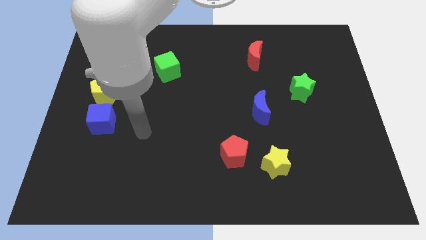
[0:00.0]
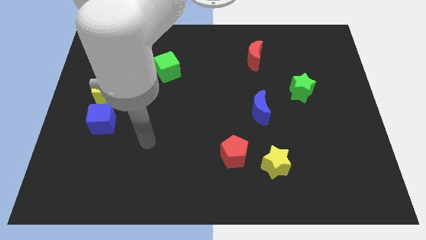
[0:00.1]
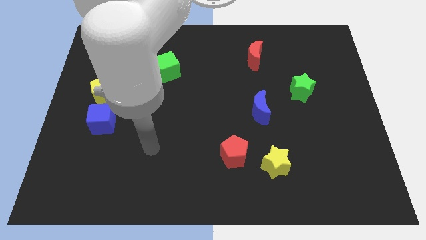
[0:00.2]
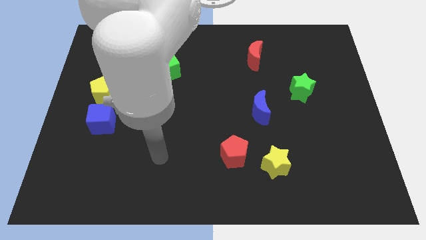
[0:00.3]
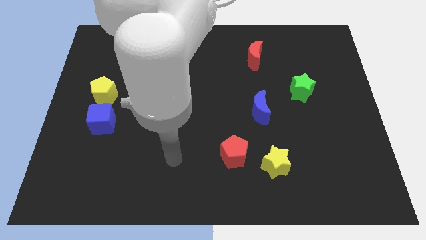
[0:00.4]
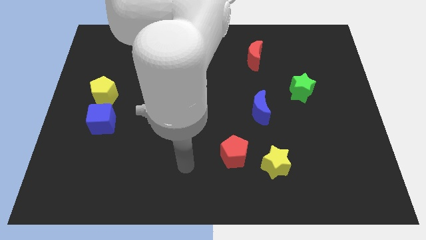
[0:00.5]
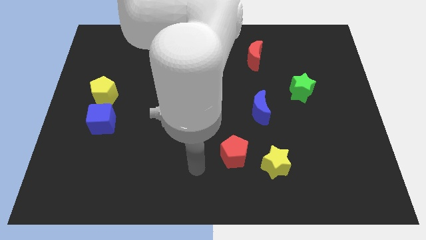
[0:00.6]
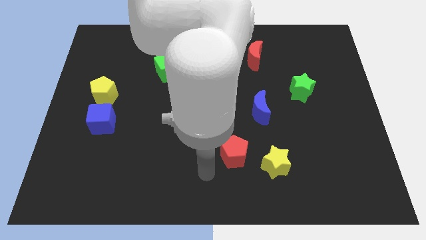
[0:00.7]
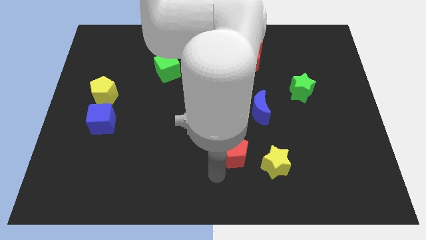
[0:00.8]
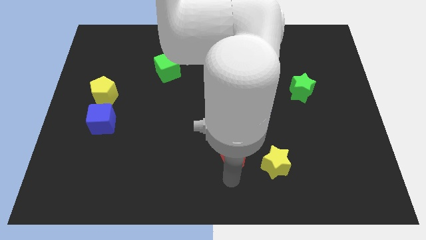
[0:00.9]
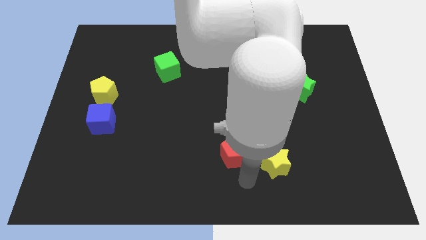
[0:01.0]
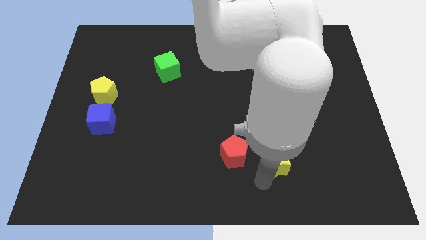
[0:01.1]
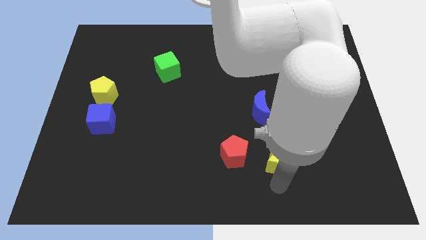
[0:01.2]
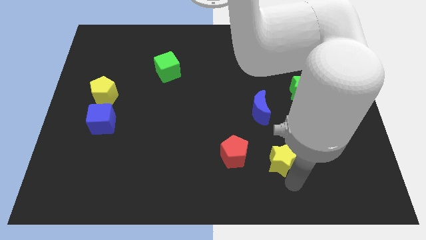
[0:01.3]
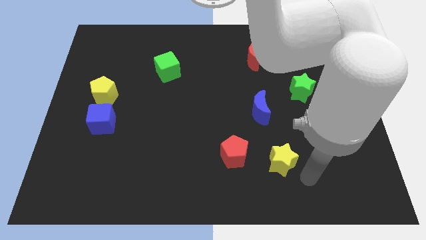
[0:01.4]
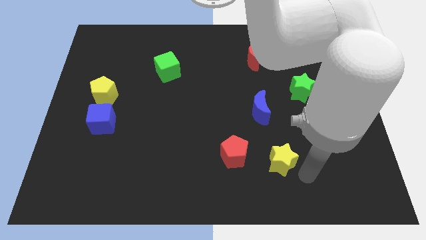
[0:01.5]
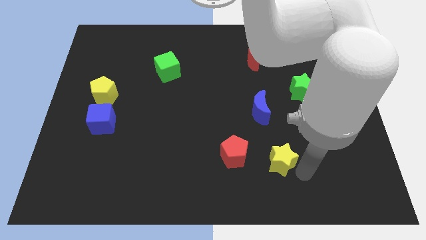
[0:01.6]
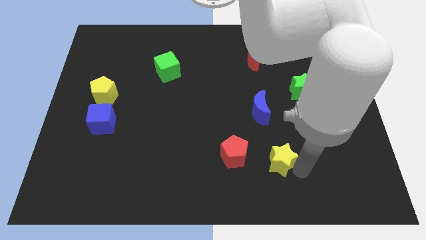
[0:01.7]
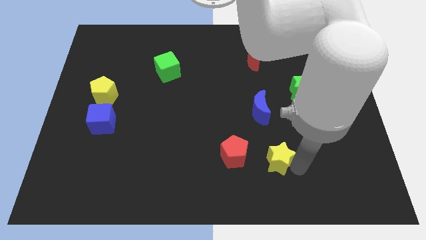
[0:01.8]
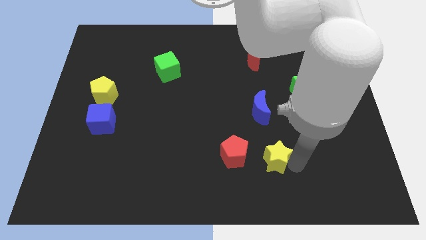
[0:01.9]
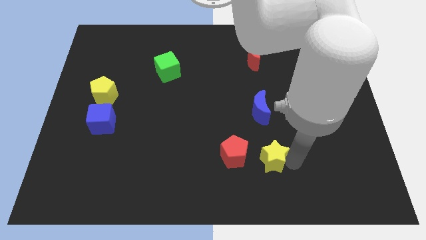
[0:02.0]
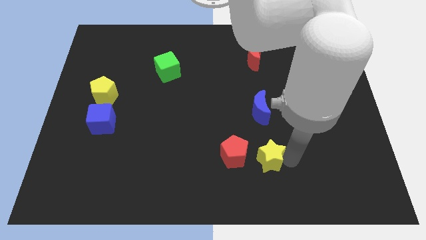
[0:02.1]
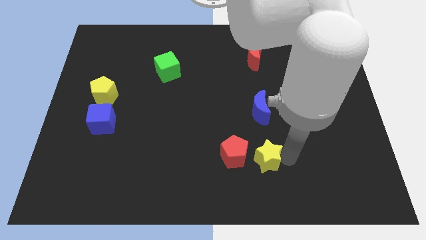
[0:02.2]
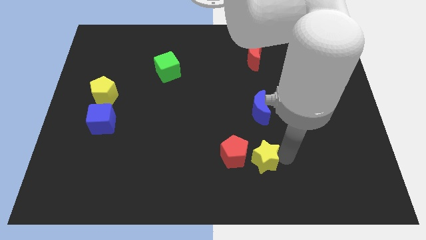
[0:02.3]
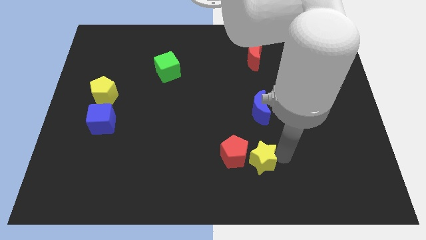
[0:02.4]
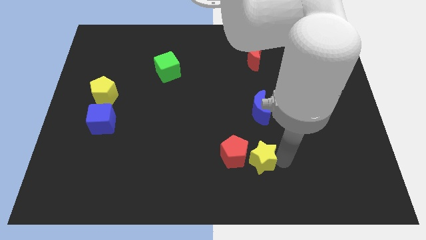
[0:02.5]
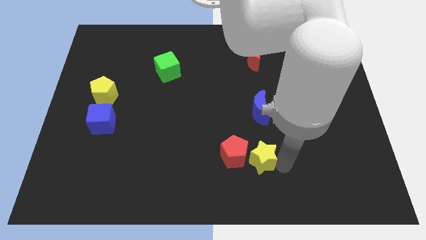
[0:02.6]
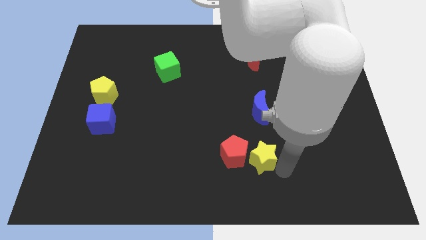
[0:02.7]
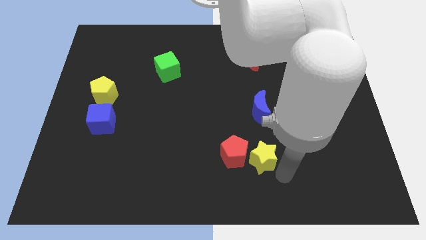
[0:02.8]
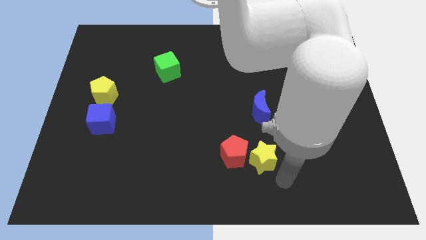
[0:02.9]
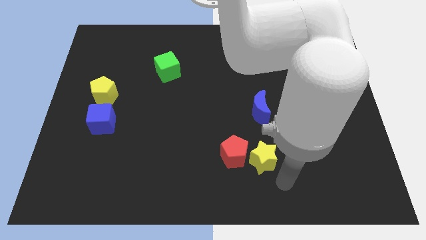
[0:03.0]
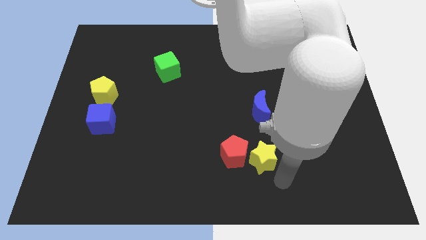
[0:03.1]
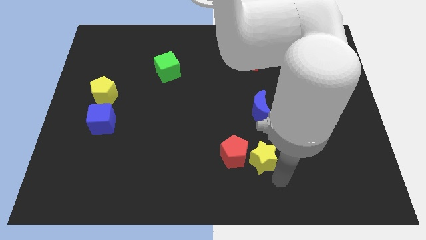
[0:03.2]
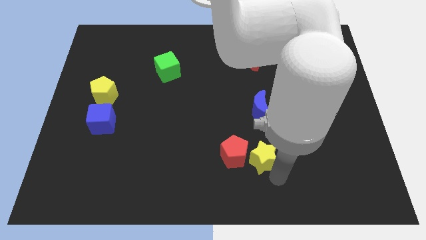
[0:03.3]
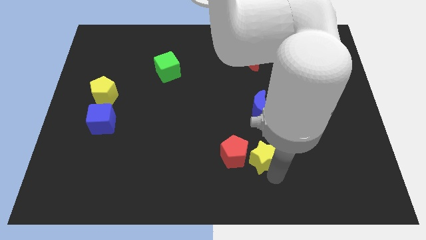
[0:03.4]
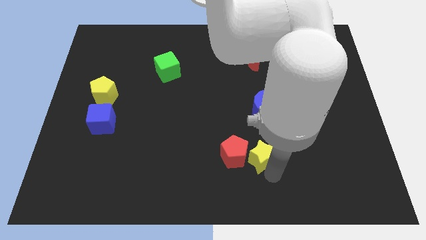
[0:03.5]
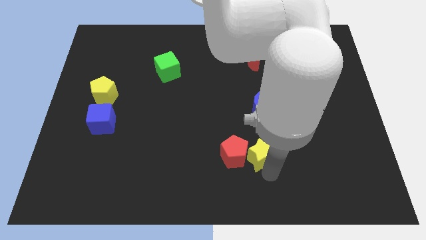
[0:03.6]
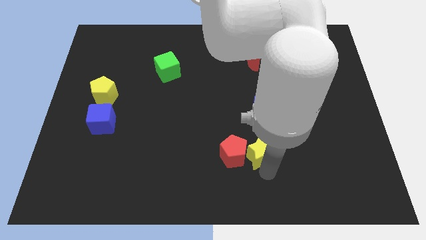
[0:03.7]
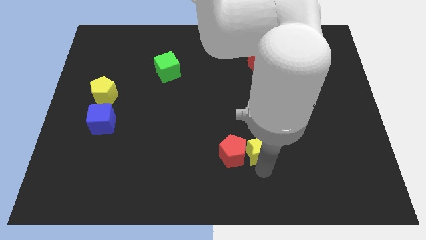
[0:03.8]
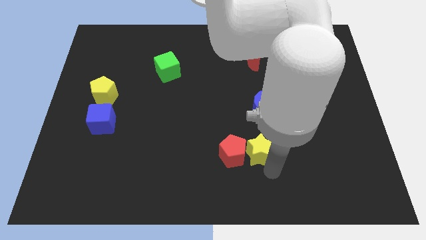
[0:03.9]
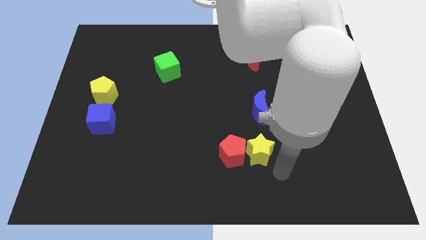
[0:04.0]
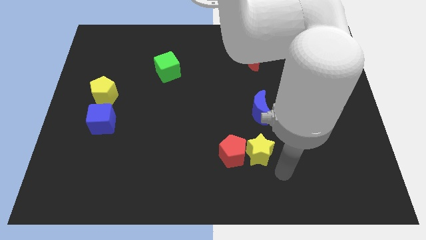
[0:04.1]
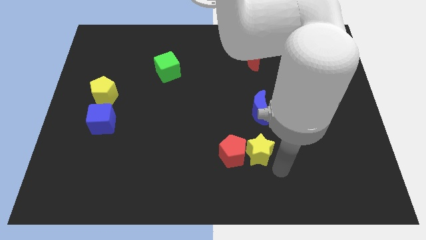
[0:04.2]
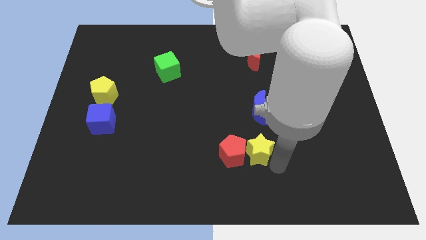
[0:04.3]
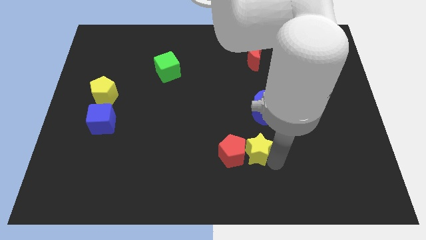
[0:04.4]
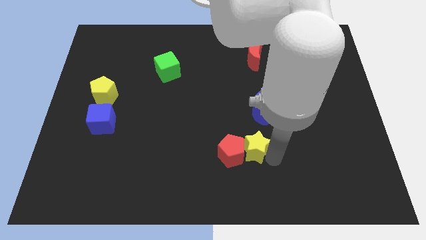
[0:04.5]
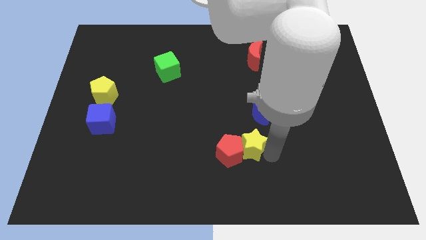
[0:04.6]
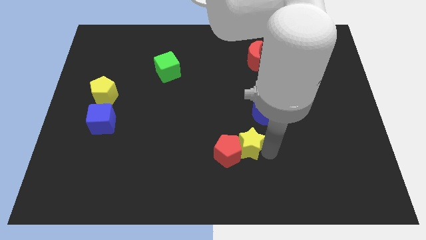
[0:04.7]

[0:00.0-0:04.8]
push the yellow star upwards and then to the left a bit

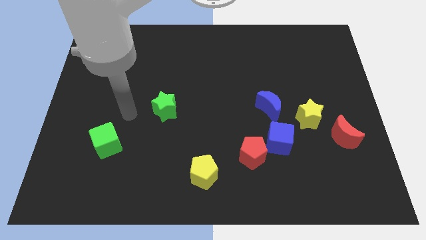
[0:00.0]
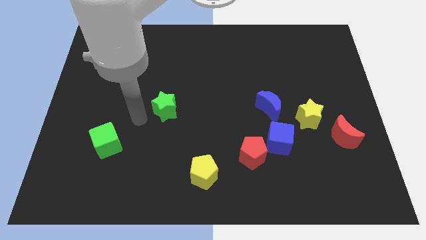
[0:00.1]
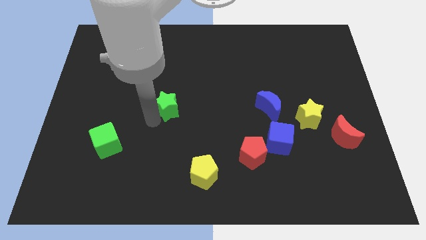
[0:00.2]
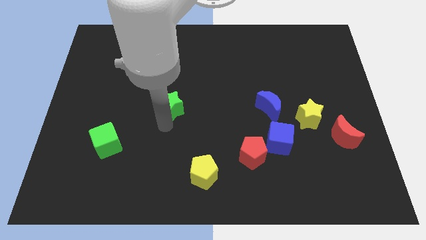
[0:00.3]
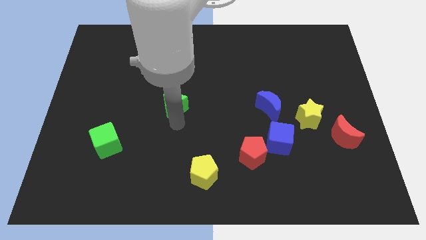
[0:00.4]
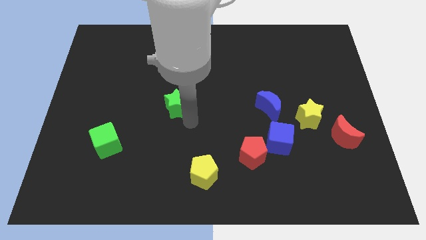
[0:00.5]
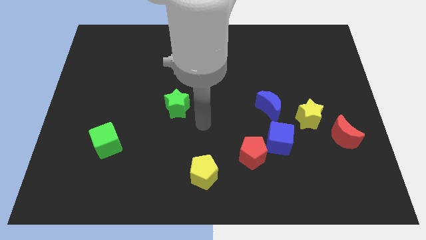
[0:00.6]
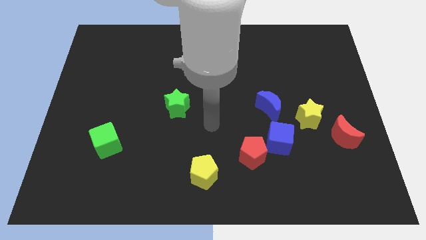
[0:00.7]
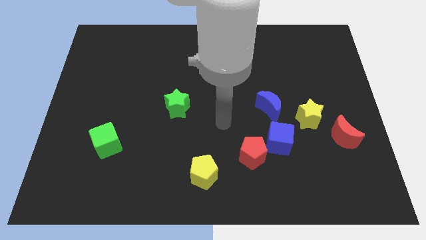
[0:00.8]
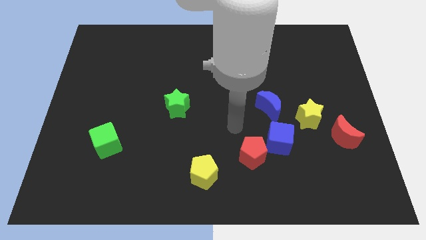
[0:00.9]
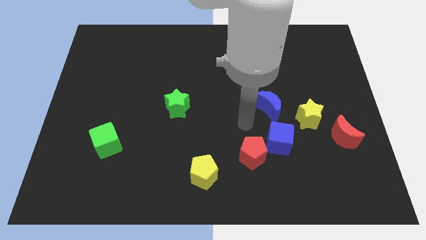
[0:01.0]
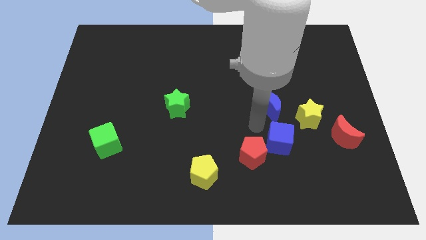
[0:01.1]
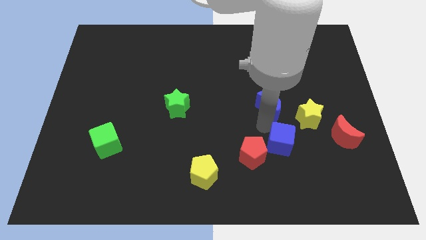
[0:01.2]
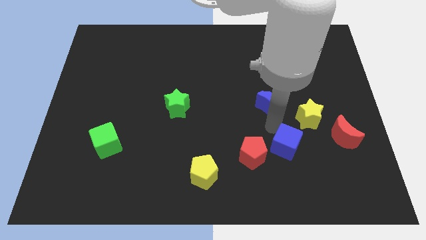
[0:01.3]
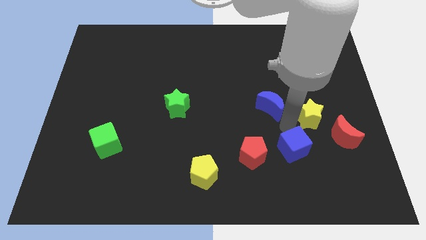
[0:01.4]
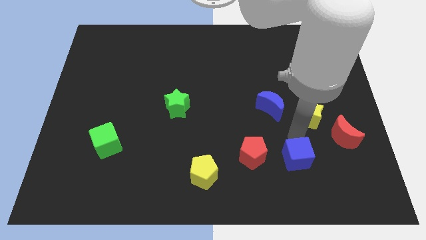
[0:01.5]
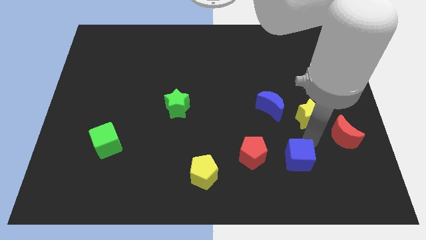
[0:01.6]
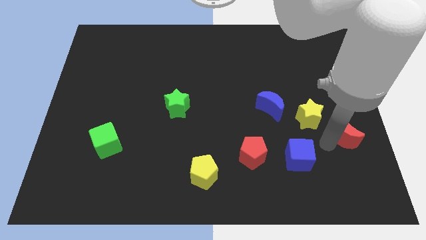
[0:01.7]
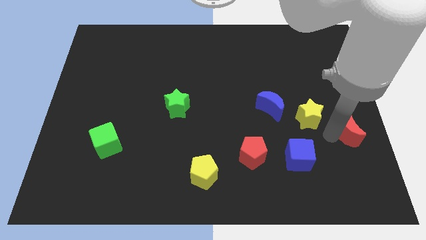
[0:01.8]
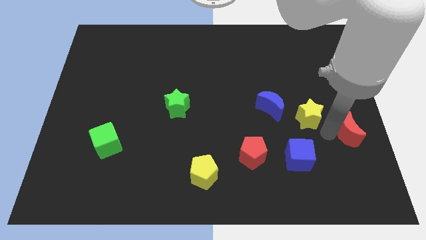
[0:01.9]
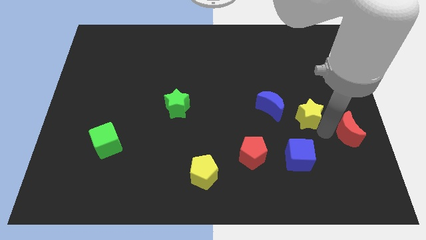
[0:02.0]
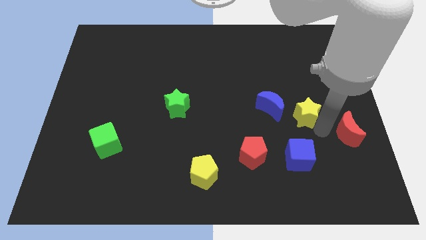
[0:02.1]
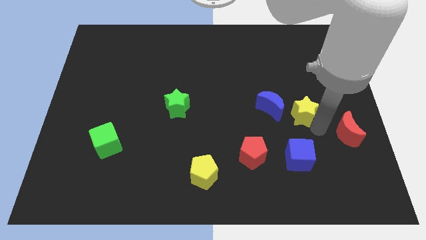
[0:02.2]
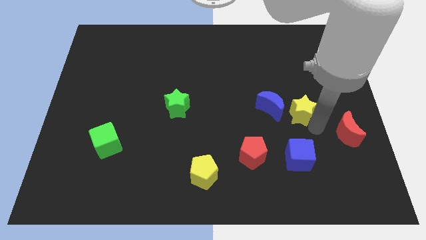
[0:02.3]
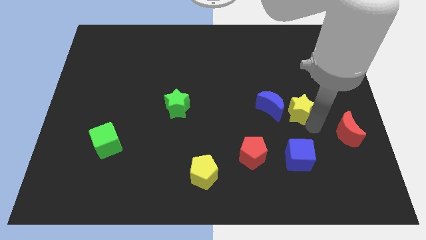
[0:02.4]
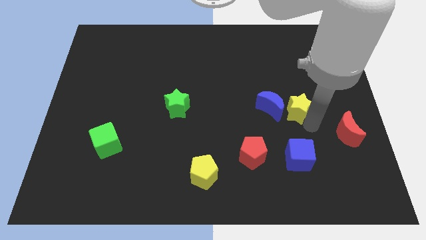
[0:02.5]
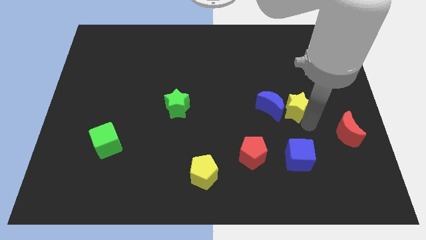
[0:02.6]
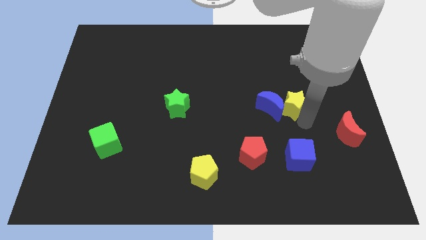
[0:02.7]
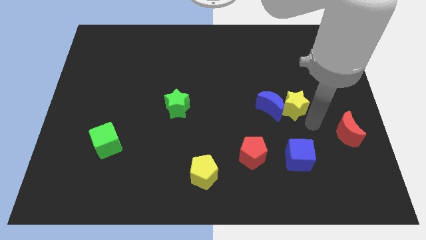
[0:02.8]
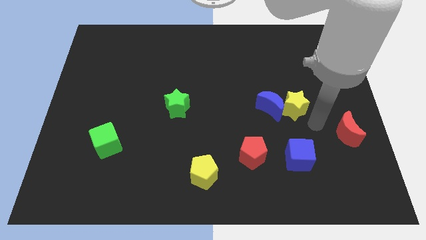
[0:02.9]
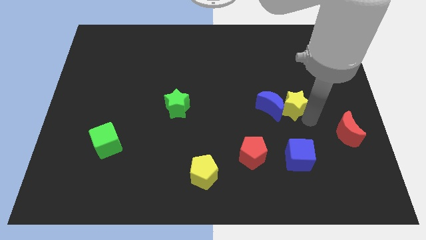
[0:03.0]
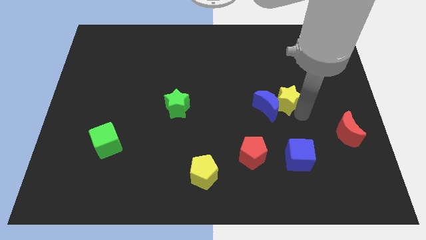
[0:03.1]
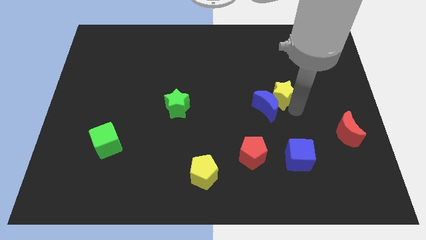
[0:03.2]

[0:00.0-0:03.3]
slightly push the yellow star upwards and then to the left
